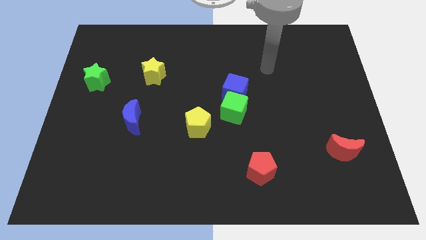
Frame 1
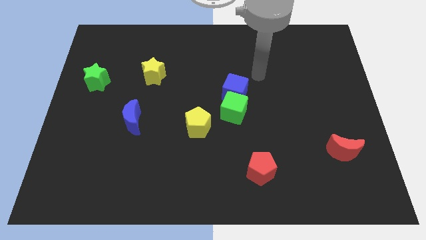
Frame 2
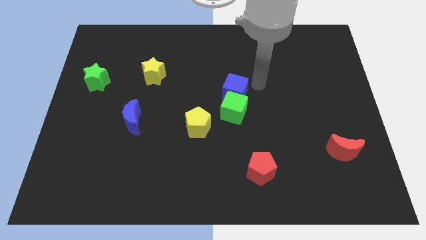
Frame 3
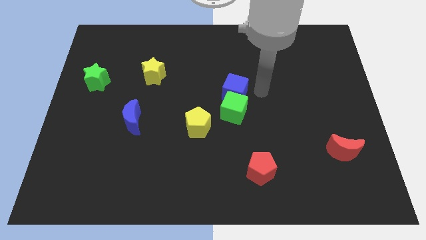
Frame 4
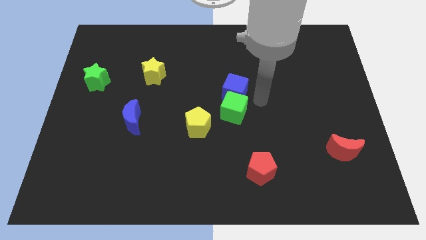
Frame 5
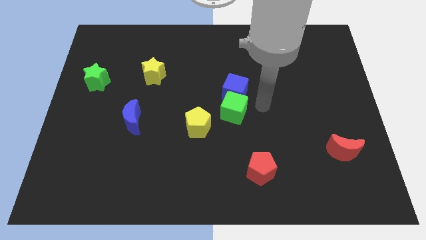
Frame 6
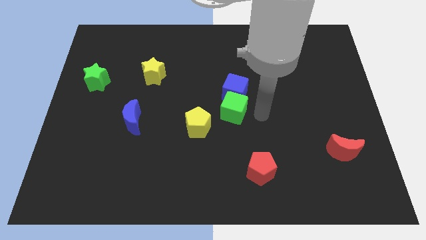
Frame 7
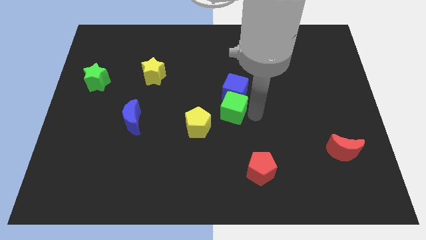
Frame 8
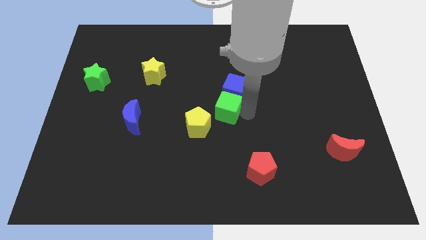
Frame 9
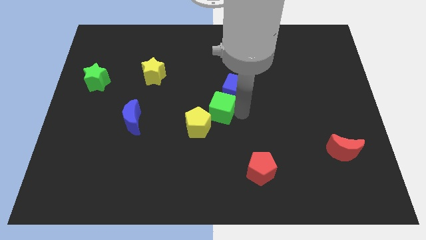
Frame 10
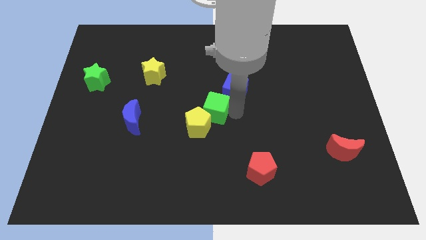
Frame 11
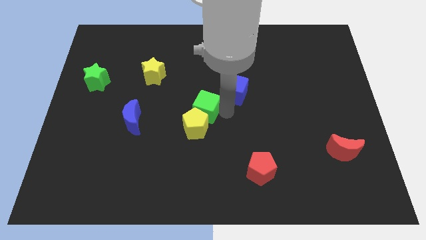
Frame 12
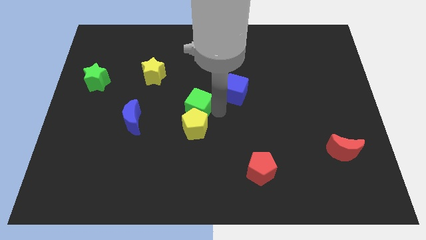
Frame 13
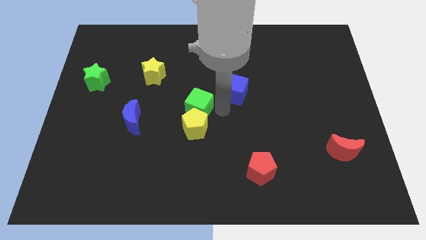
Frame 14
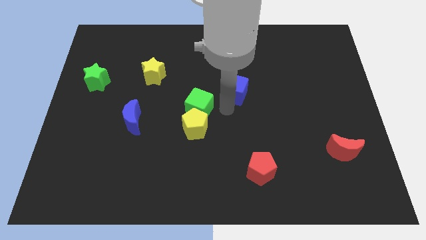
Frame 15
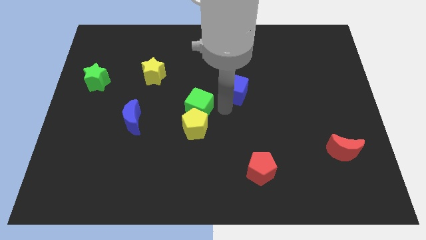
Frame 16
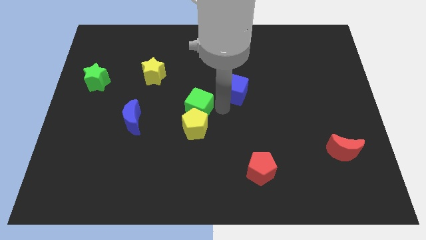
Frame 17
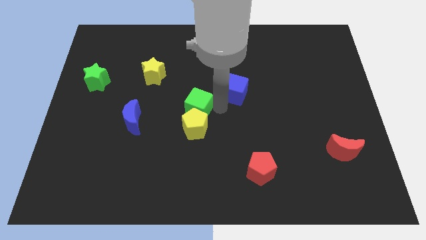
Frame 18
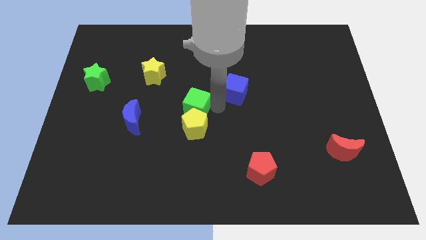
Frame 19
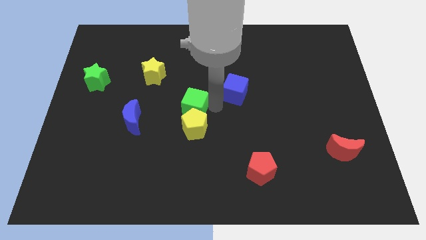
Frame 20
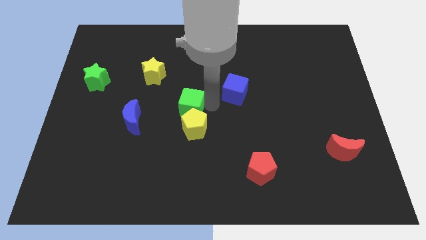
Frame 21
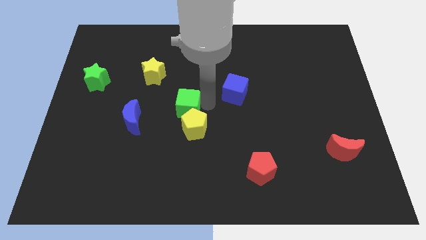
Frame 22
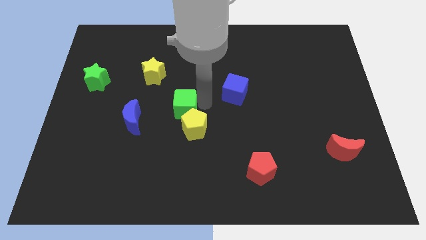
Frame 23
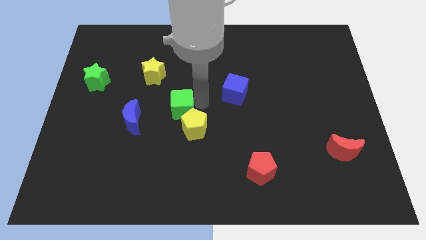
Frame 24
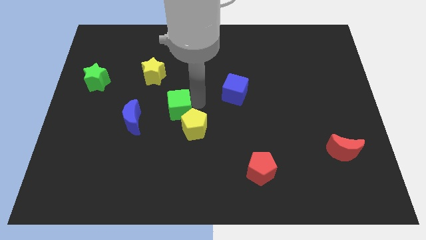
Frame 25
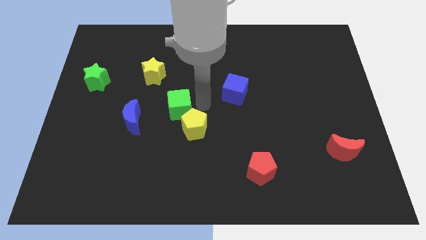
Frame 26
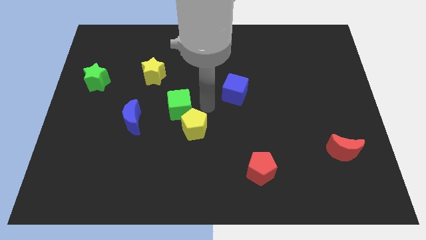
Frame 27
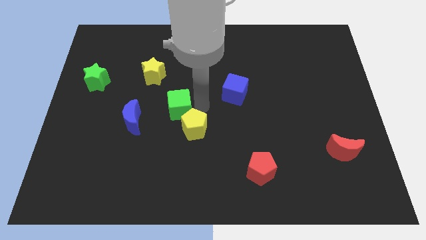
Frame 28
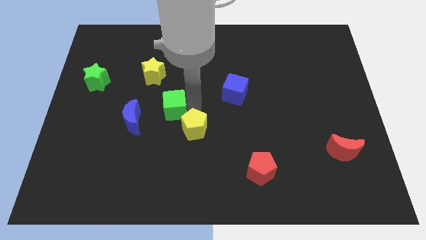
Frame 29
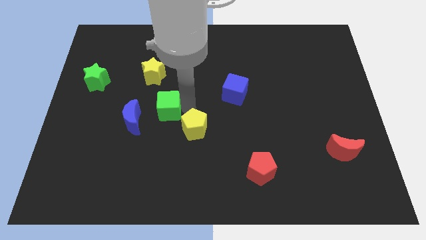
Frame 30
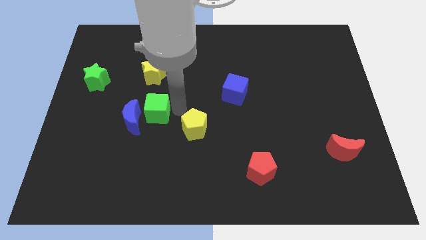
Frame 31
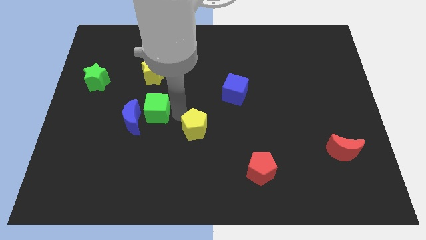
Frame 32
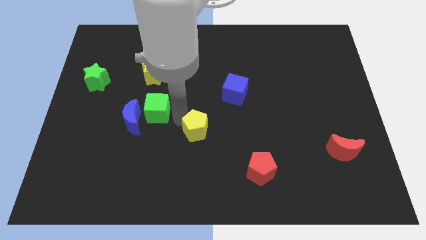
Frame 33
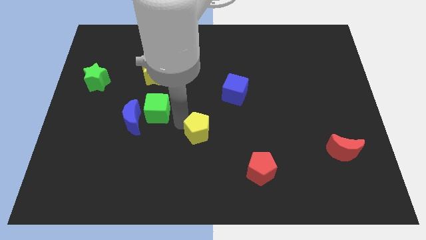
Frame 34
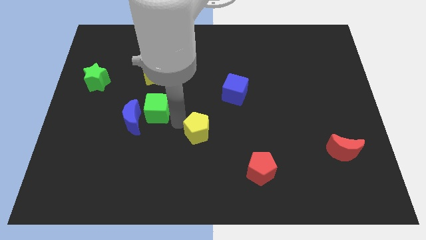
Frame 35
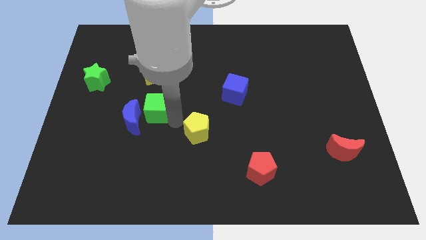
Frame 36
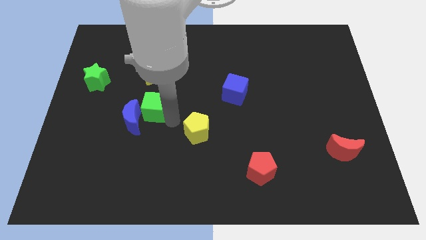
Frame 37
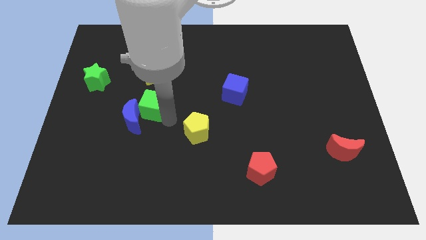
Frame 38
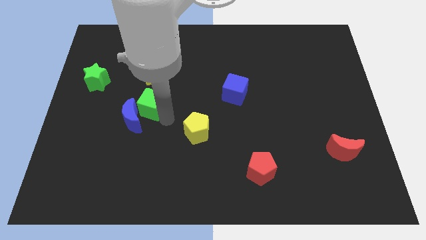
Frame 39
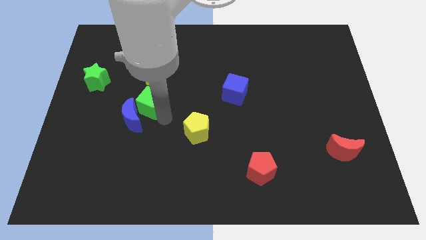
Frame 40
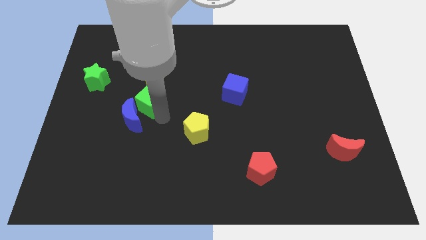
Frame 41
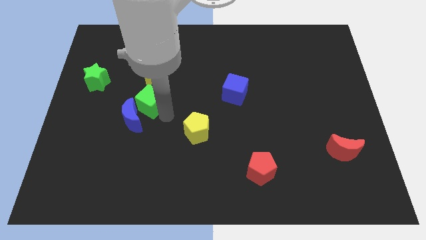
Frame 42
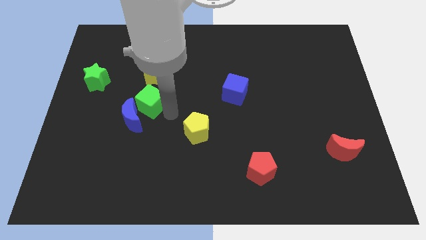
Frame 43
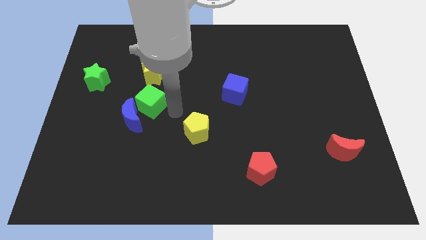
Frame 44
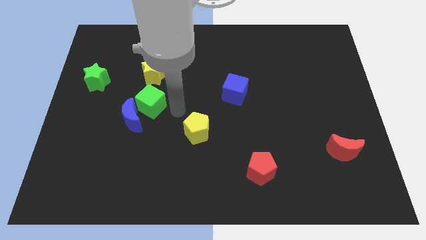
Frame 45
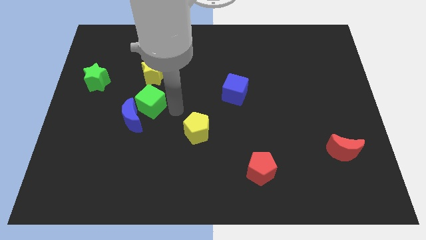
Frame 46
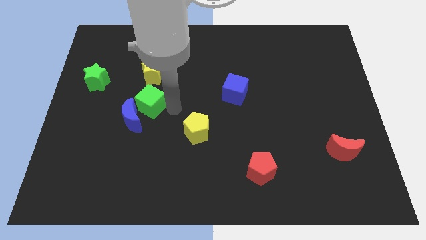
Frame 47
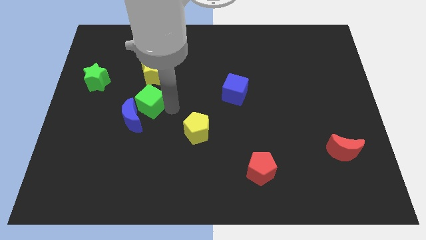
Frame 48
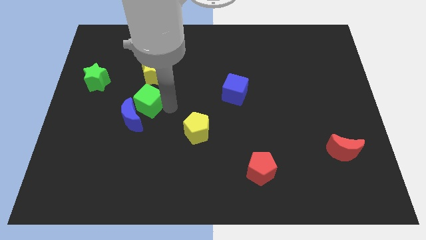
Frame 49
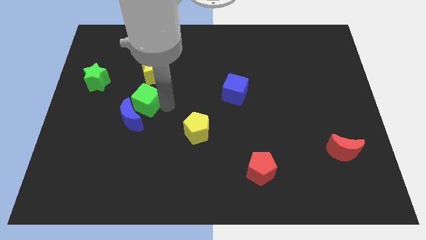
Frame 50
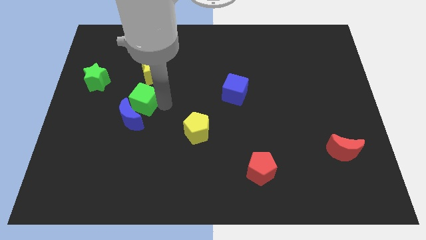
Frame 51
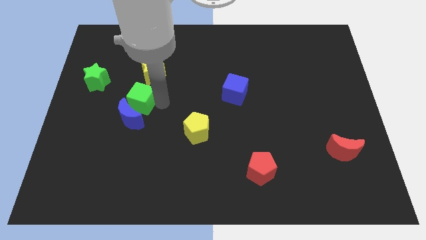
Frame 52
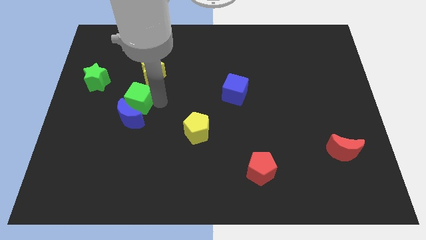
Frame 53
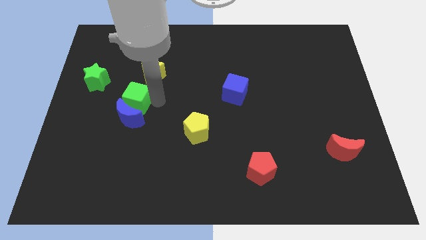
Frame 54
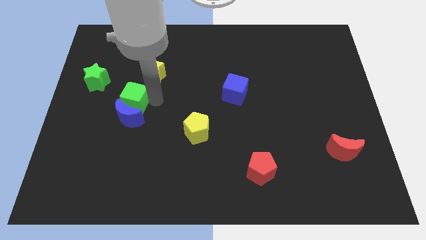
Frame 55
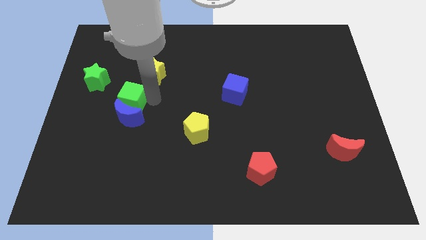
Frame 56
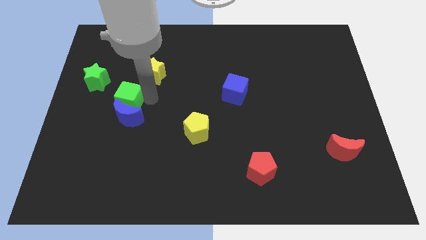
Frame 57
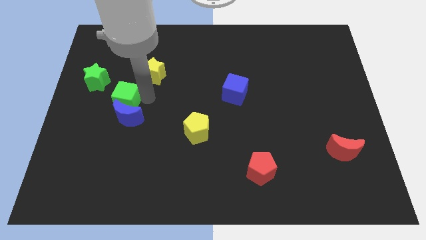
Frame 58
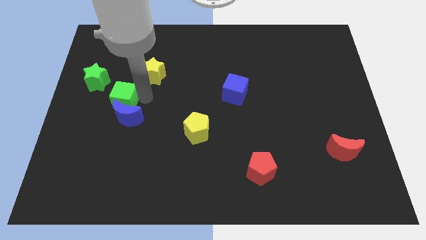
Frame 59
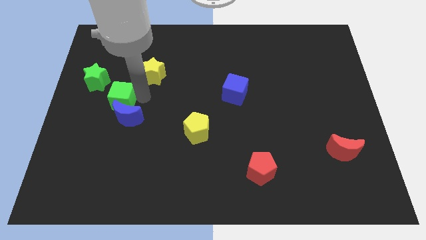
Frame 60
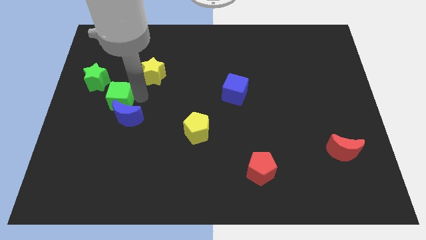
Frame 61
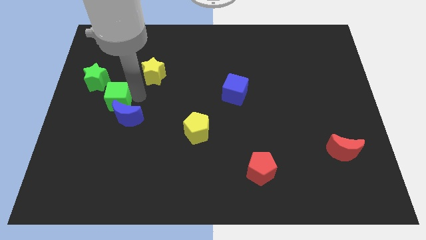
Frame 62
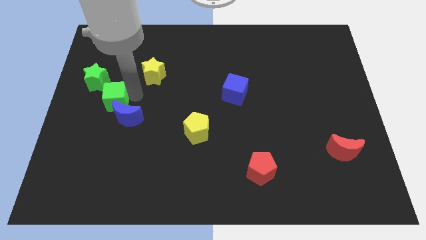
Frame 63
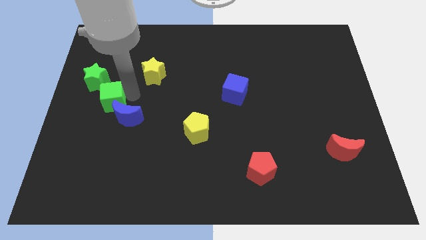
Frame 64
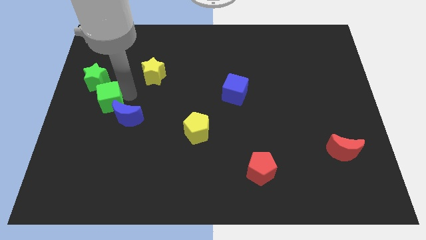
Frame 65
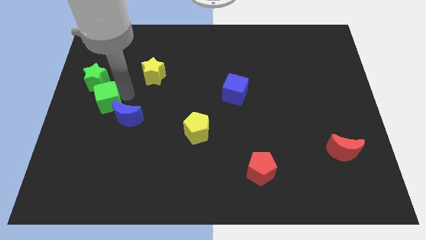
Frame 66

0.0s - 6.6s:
put the green cube to the center left

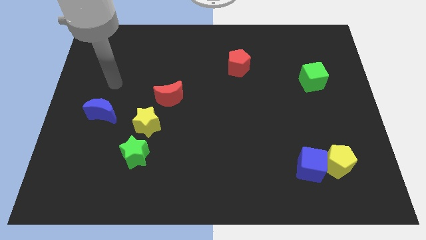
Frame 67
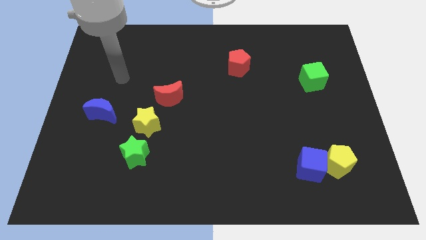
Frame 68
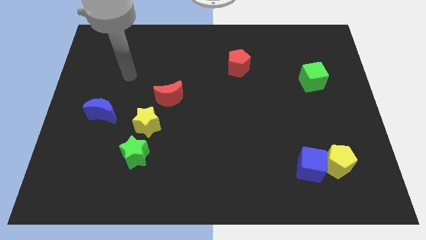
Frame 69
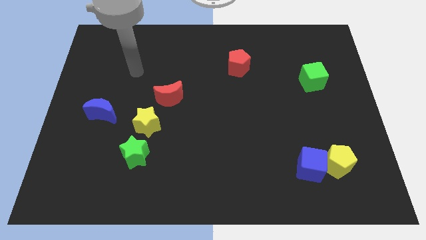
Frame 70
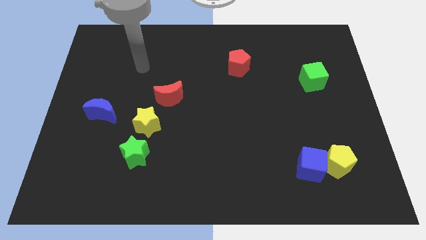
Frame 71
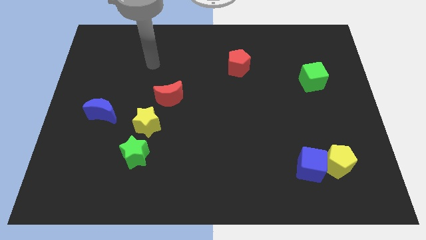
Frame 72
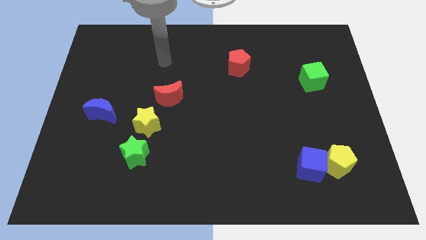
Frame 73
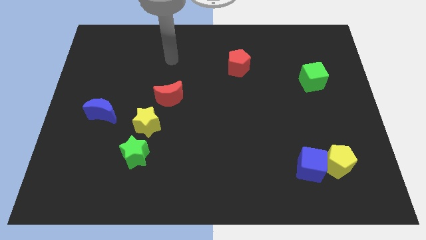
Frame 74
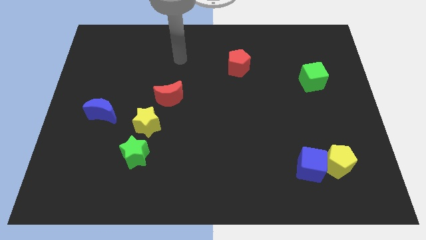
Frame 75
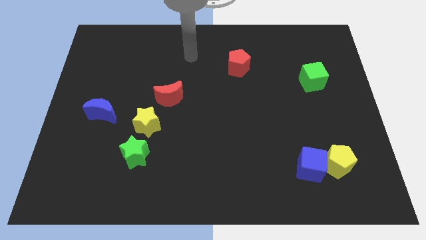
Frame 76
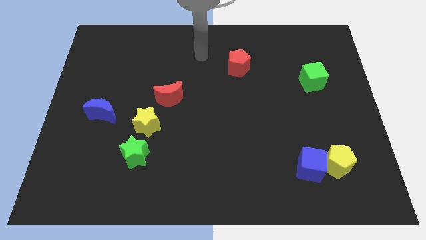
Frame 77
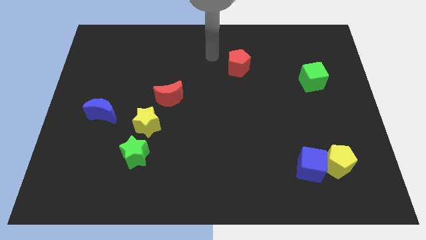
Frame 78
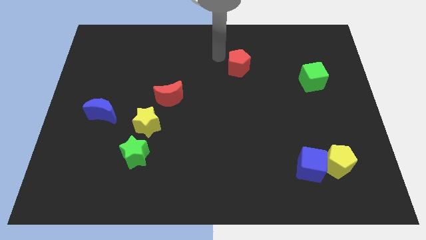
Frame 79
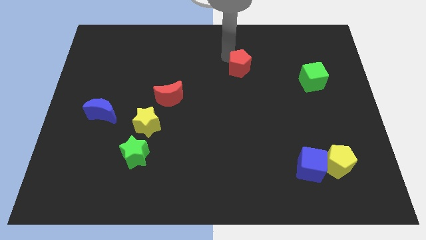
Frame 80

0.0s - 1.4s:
move the red pentagon to the middle of the board
